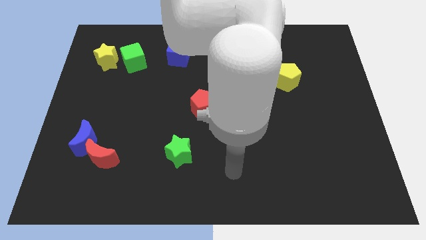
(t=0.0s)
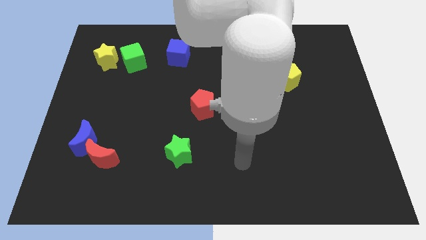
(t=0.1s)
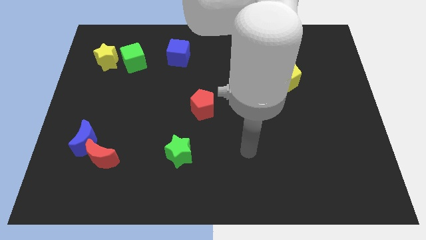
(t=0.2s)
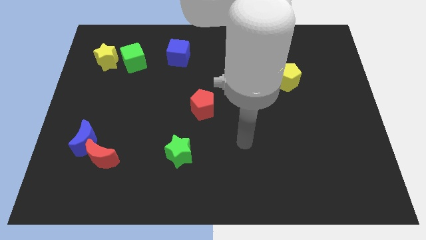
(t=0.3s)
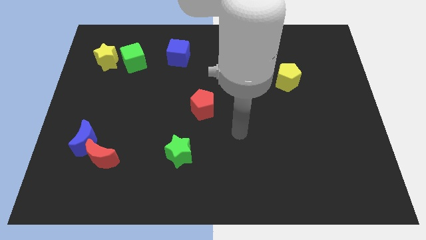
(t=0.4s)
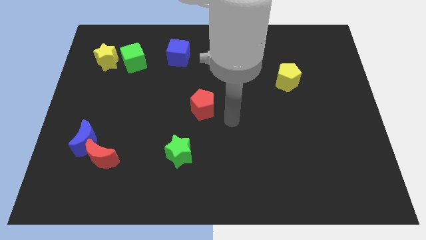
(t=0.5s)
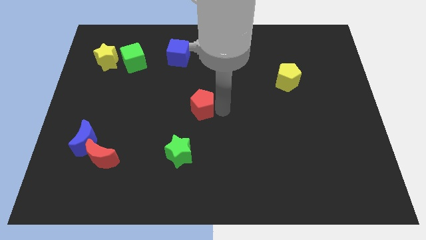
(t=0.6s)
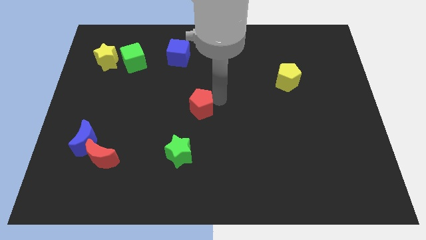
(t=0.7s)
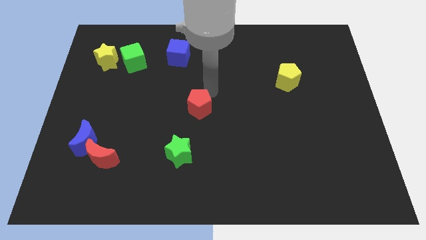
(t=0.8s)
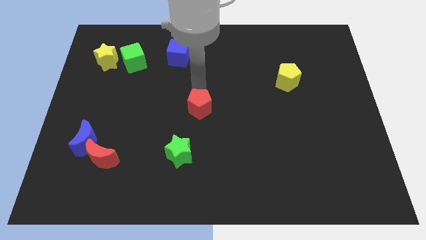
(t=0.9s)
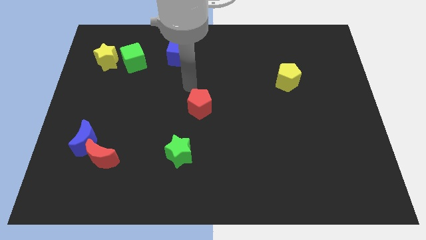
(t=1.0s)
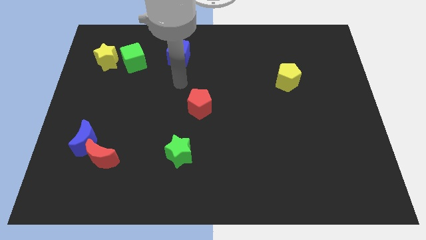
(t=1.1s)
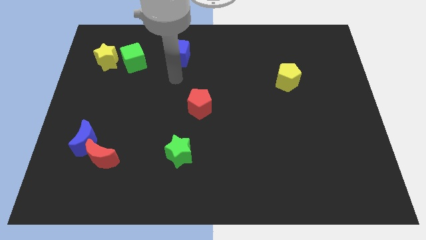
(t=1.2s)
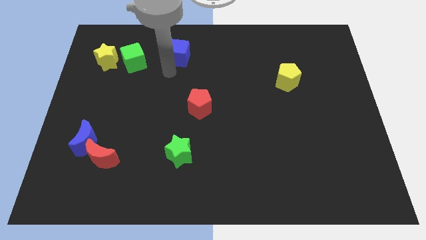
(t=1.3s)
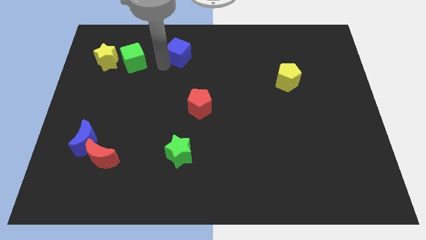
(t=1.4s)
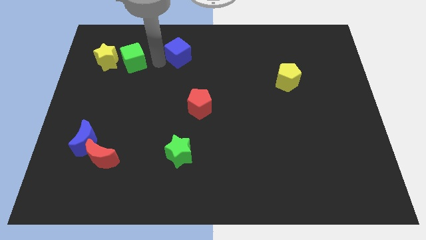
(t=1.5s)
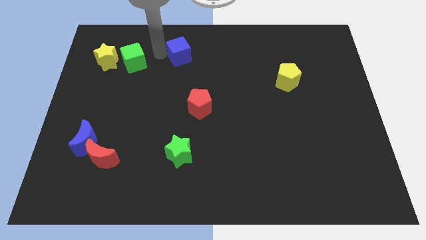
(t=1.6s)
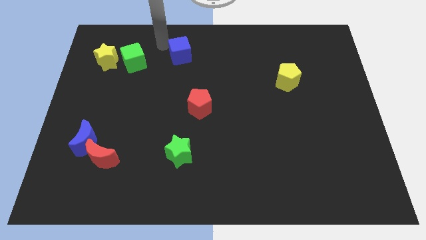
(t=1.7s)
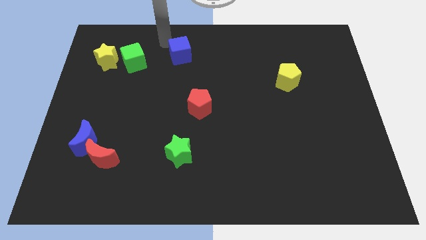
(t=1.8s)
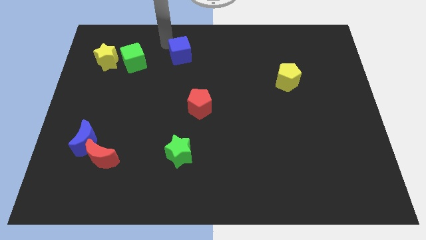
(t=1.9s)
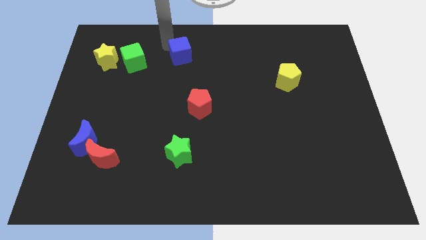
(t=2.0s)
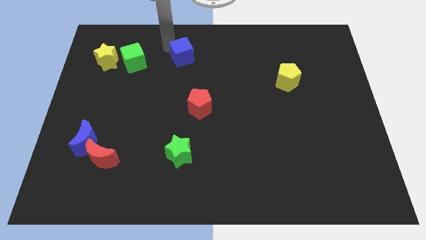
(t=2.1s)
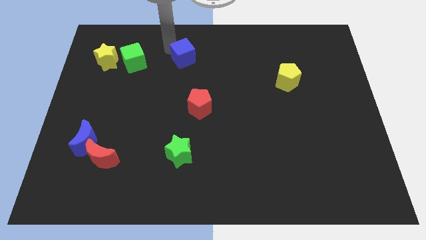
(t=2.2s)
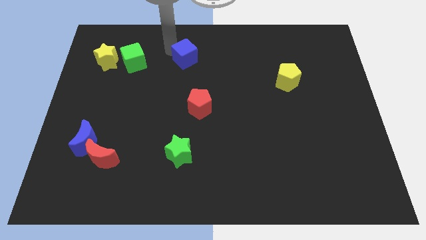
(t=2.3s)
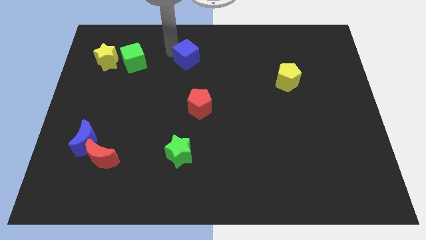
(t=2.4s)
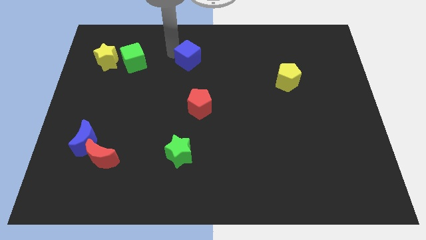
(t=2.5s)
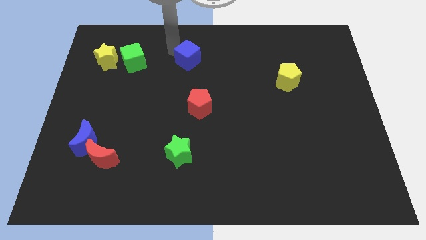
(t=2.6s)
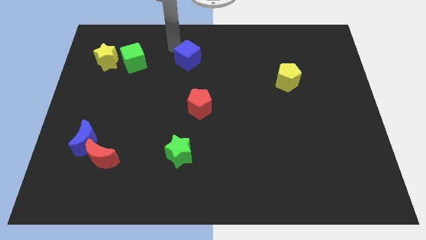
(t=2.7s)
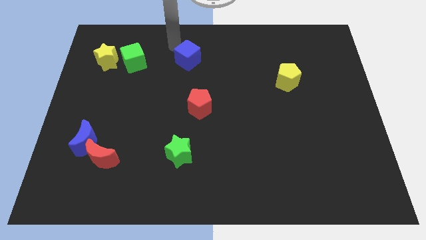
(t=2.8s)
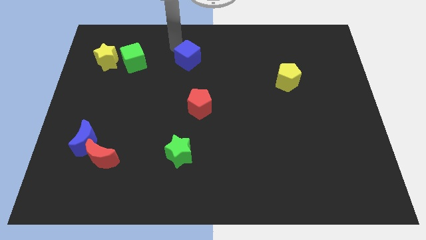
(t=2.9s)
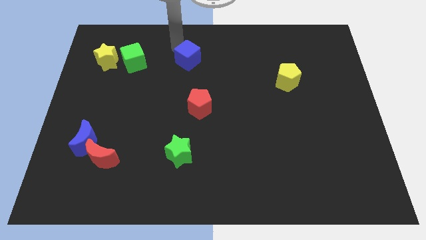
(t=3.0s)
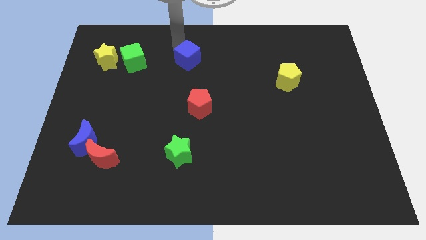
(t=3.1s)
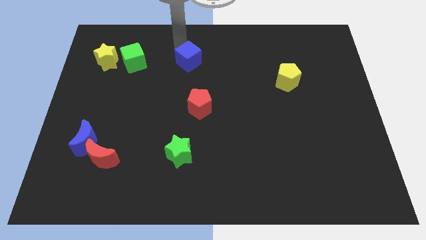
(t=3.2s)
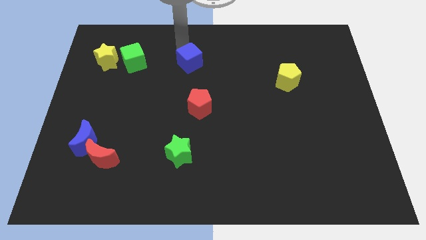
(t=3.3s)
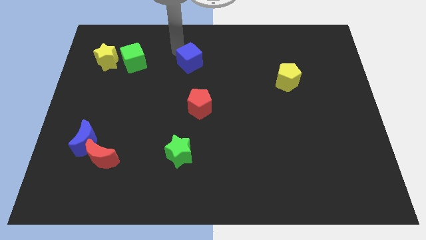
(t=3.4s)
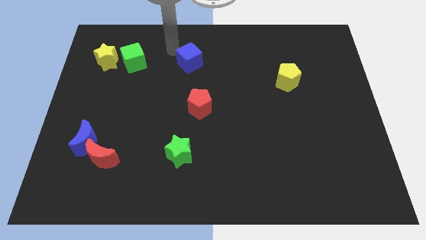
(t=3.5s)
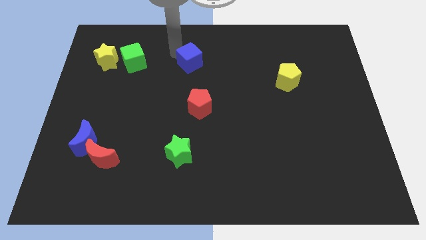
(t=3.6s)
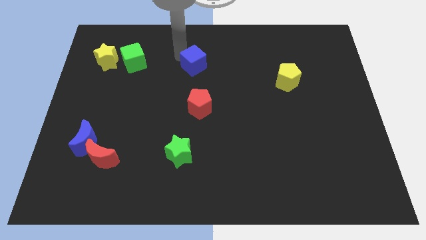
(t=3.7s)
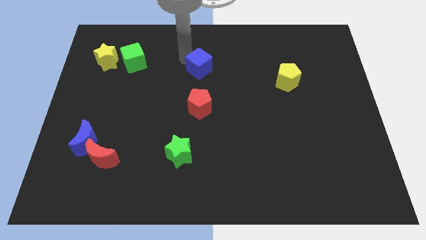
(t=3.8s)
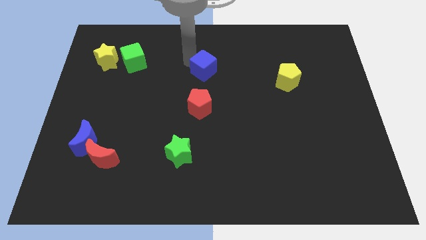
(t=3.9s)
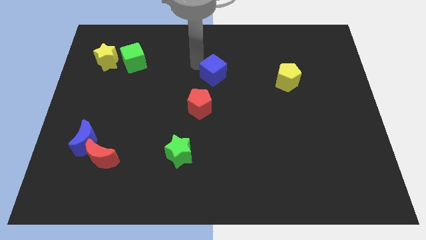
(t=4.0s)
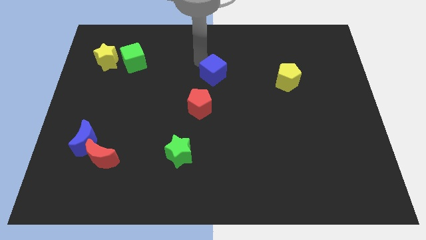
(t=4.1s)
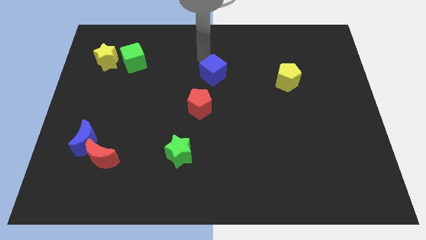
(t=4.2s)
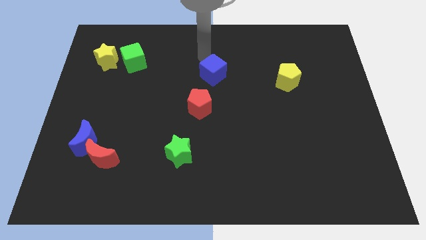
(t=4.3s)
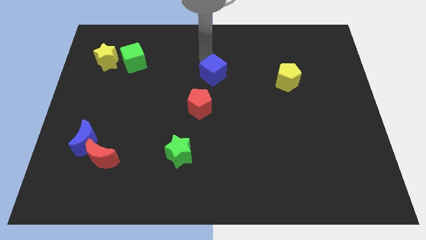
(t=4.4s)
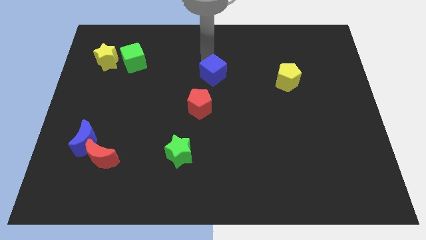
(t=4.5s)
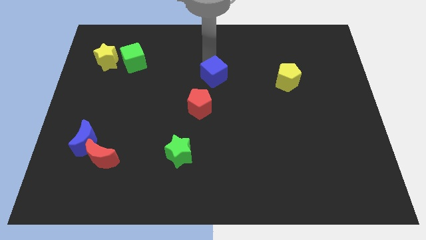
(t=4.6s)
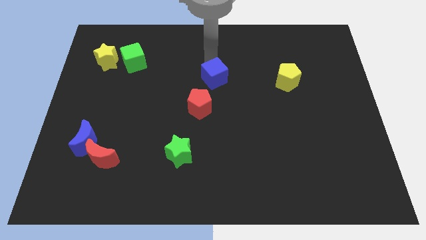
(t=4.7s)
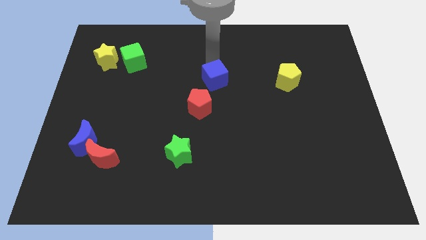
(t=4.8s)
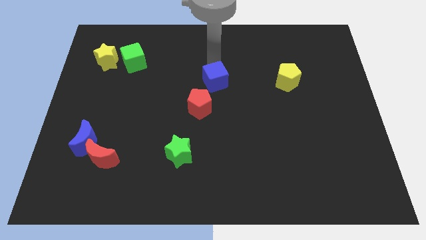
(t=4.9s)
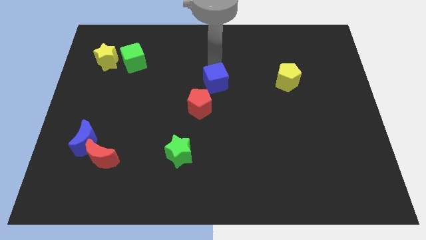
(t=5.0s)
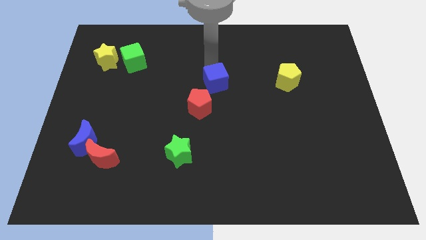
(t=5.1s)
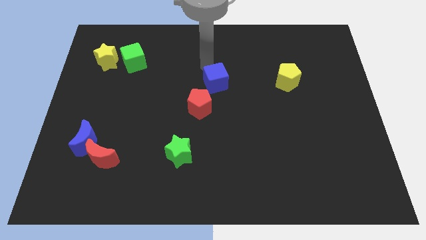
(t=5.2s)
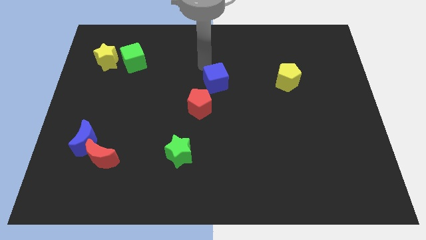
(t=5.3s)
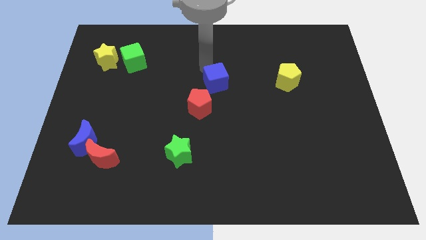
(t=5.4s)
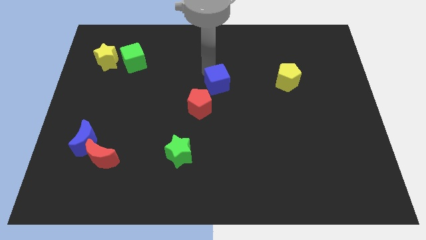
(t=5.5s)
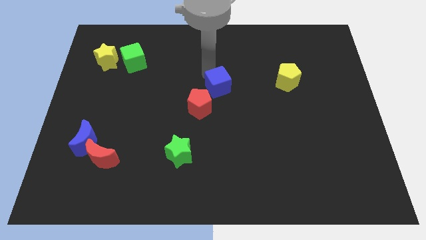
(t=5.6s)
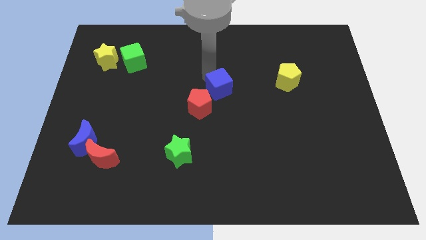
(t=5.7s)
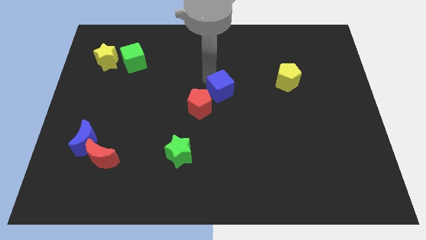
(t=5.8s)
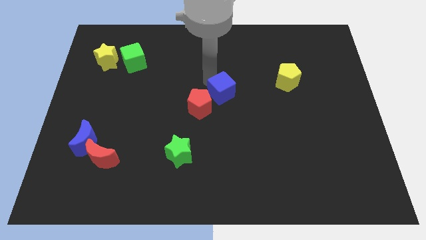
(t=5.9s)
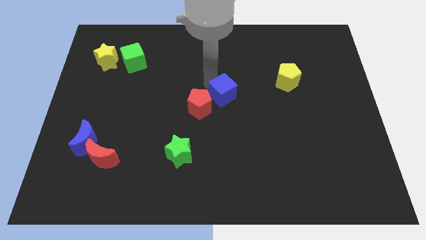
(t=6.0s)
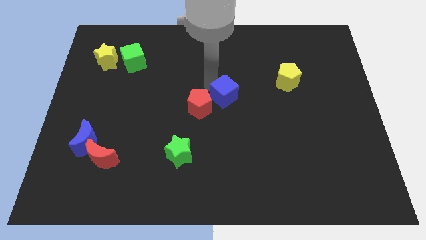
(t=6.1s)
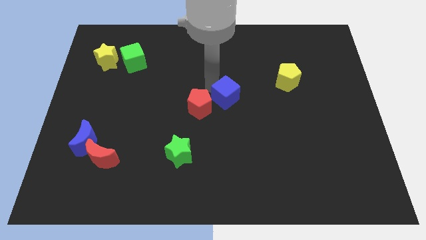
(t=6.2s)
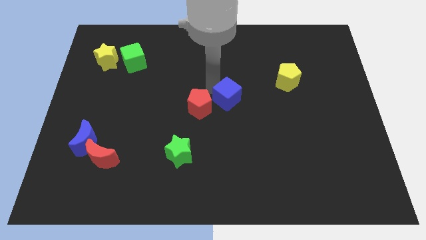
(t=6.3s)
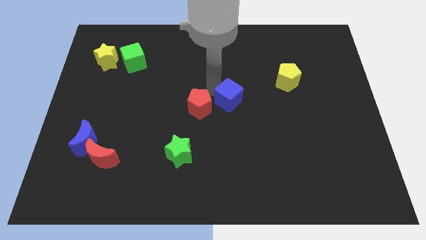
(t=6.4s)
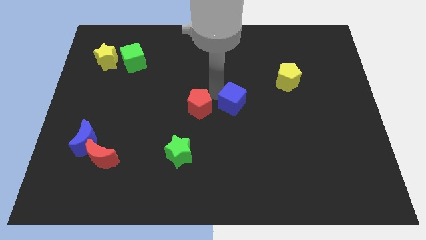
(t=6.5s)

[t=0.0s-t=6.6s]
push the blue cube down and then to the right

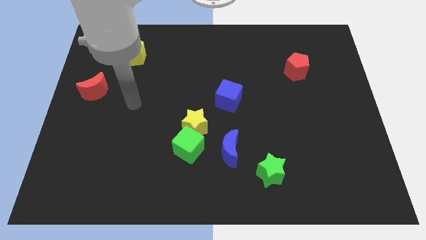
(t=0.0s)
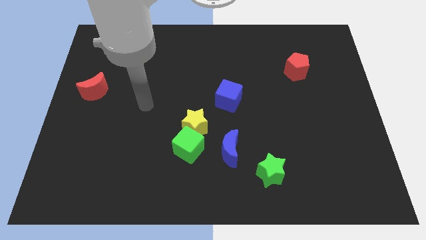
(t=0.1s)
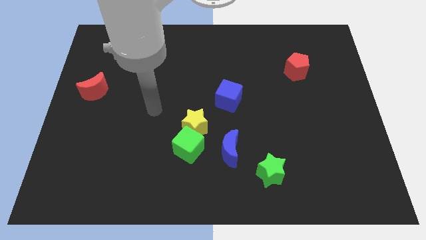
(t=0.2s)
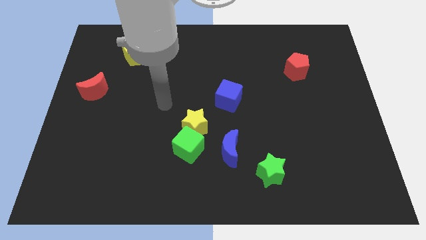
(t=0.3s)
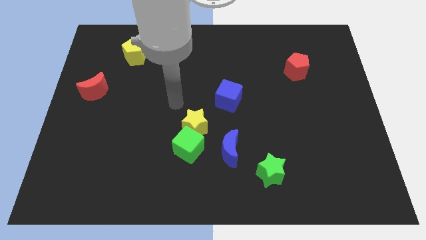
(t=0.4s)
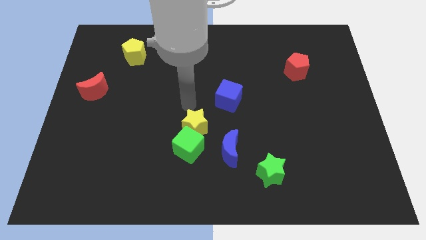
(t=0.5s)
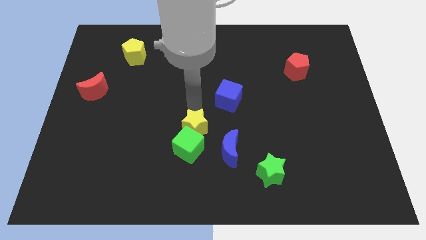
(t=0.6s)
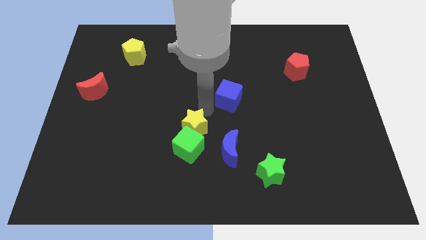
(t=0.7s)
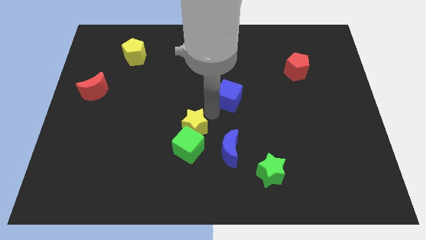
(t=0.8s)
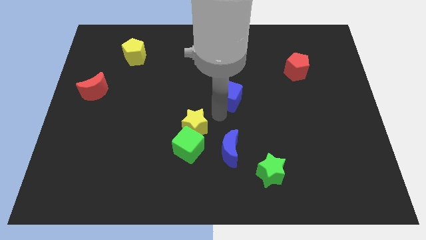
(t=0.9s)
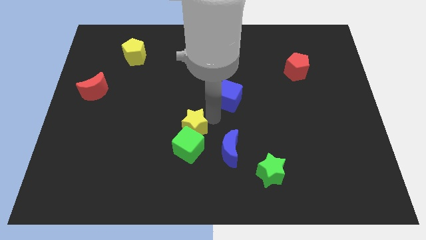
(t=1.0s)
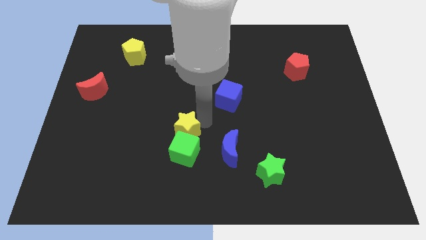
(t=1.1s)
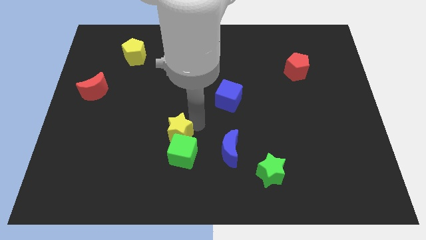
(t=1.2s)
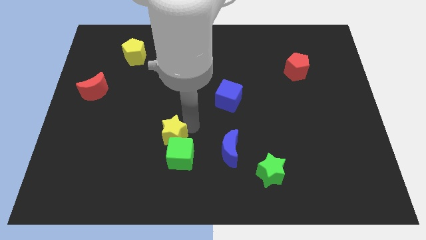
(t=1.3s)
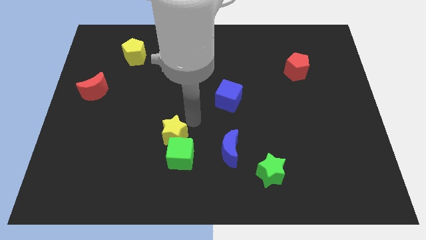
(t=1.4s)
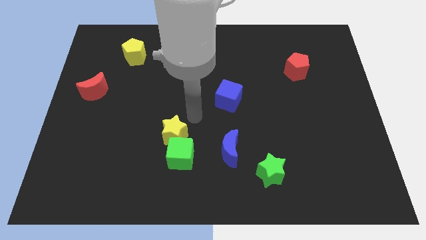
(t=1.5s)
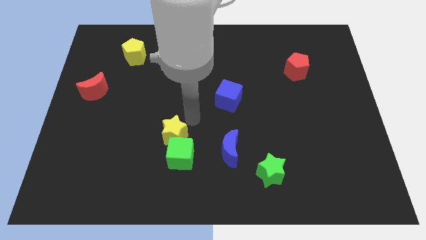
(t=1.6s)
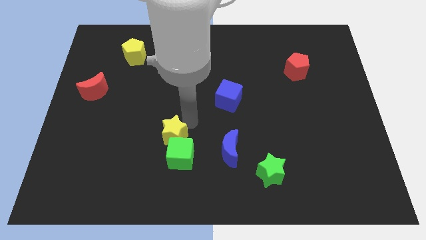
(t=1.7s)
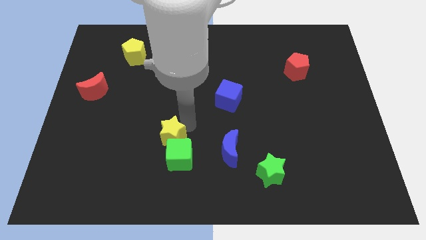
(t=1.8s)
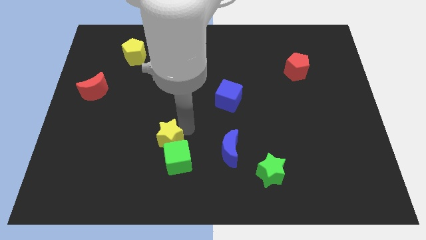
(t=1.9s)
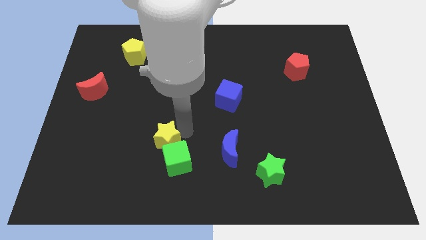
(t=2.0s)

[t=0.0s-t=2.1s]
slightly push the yellow star downwards and to the left
